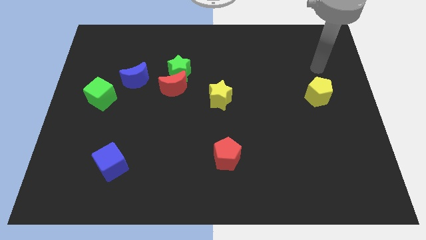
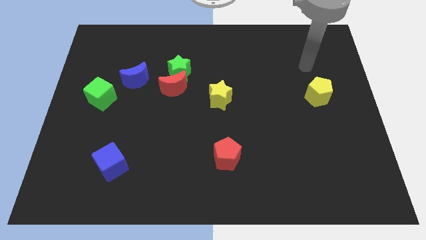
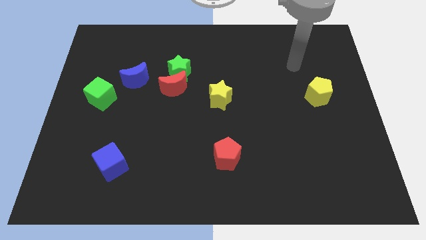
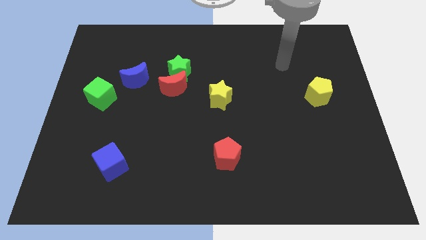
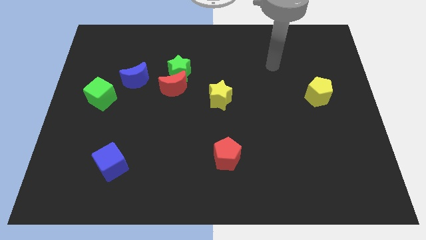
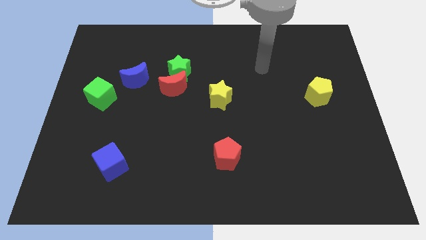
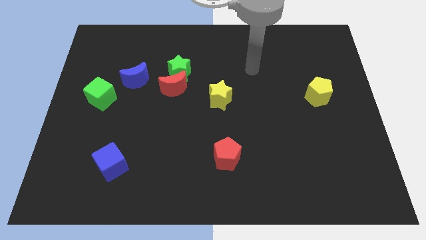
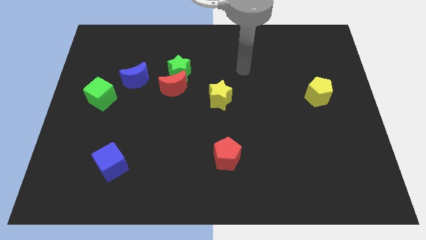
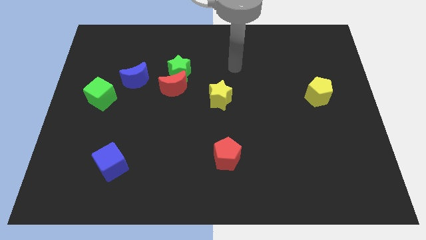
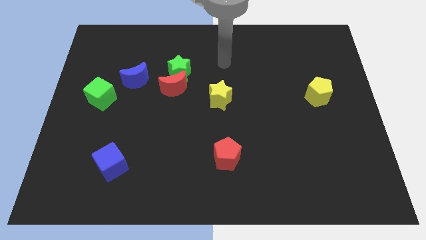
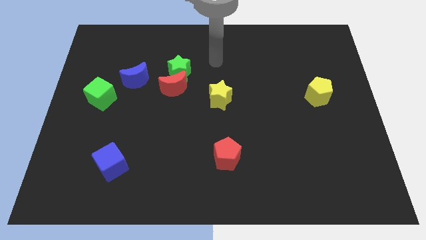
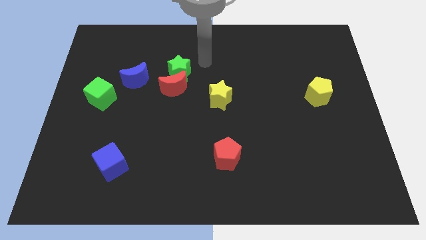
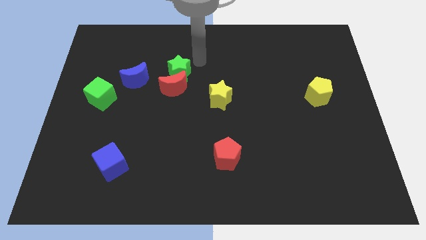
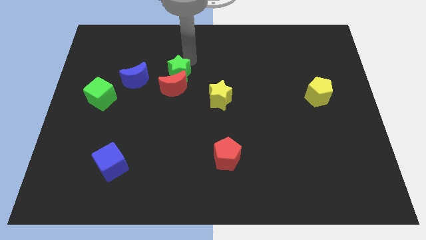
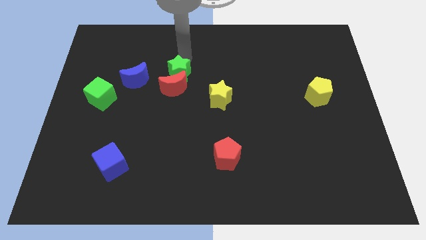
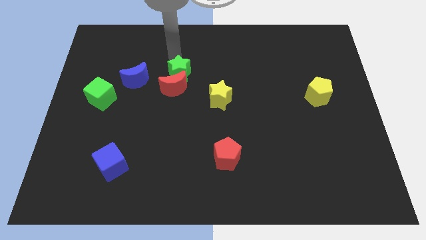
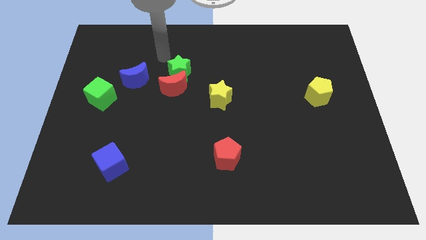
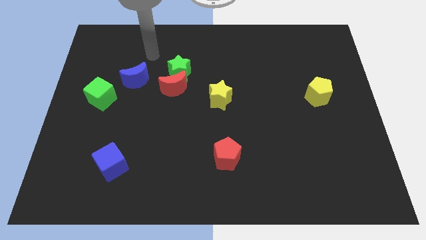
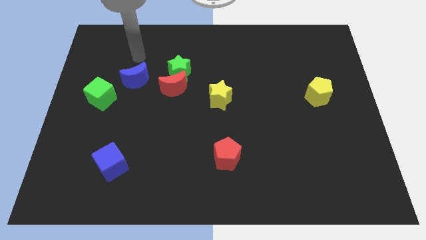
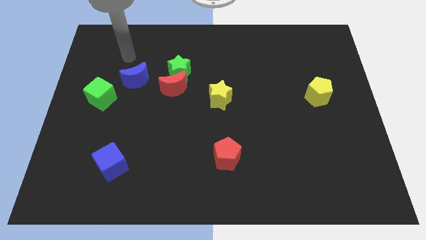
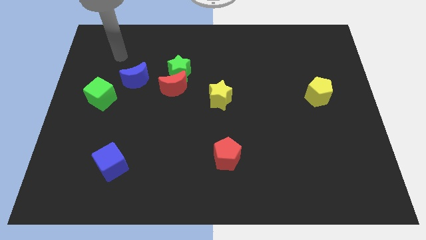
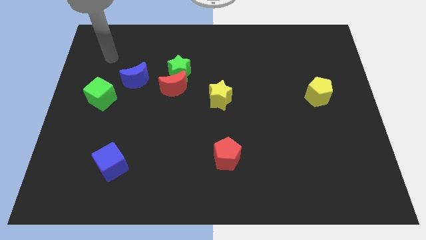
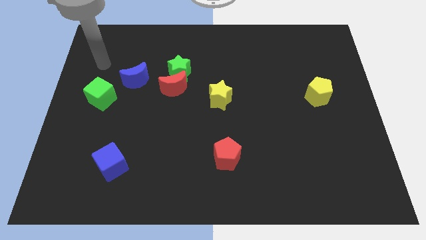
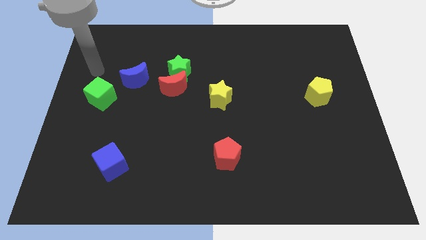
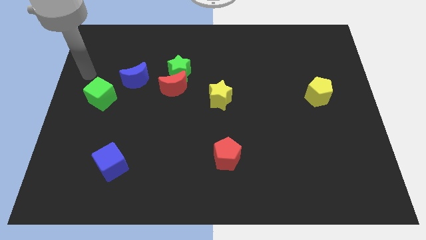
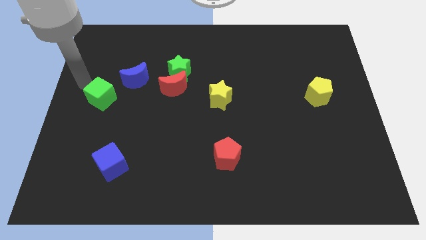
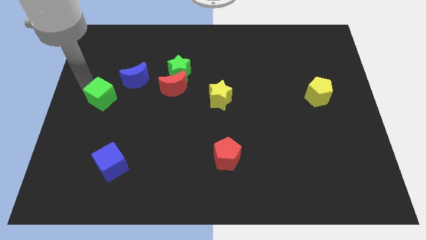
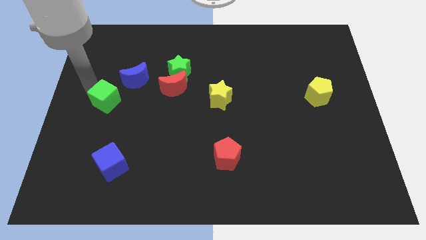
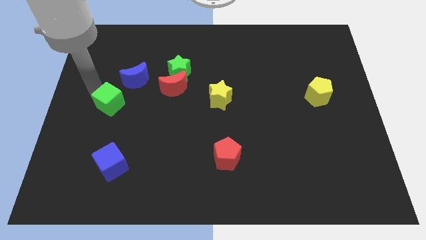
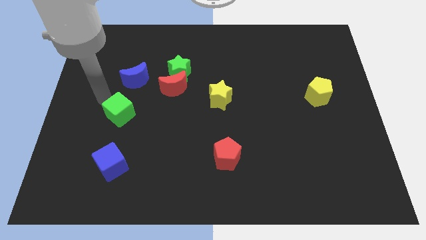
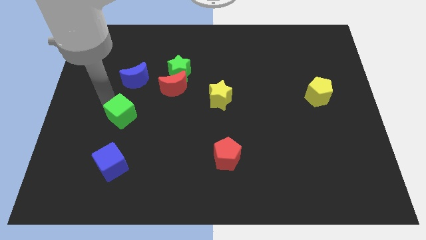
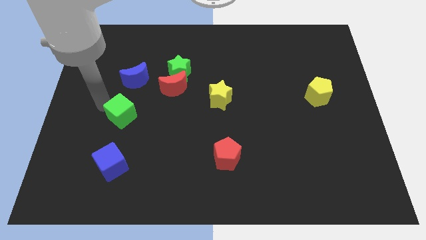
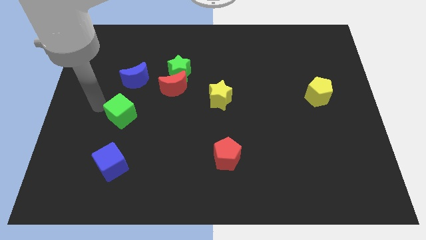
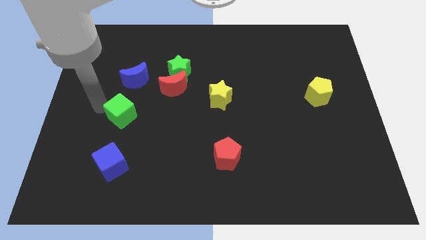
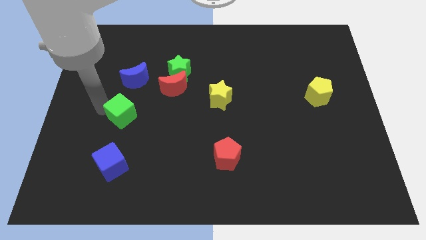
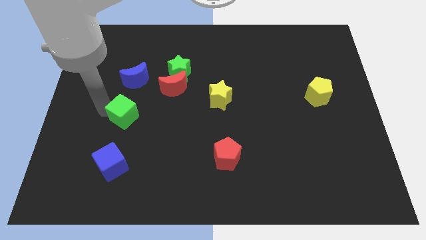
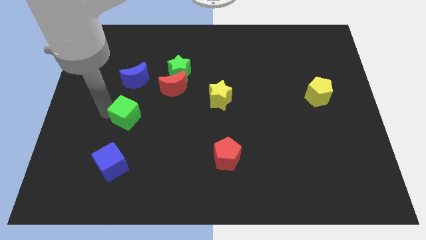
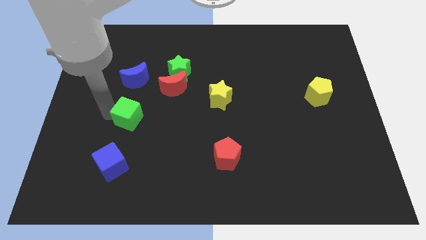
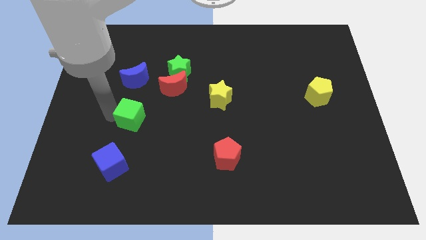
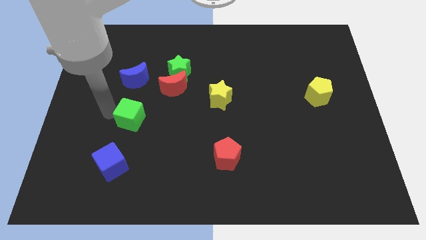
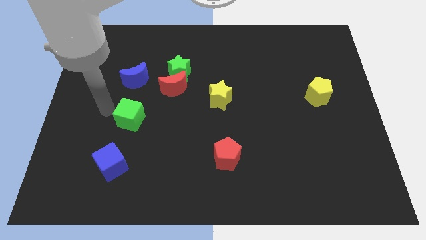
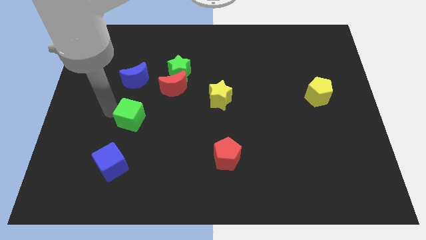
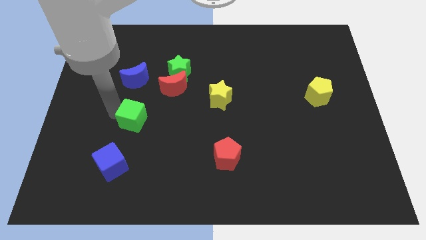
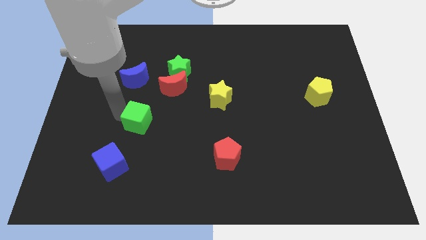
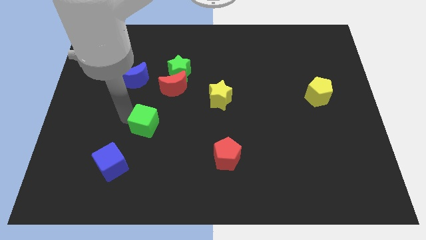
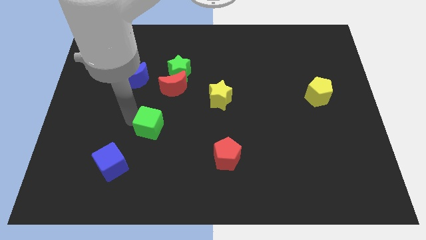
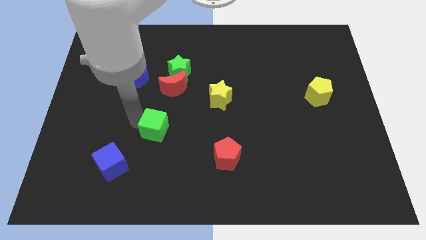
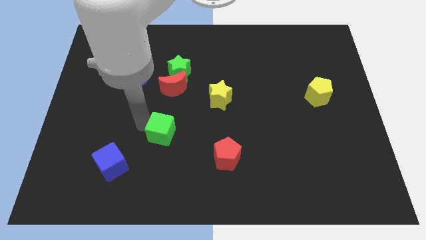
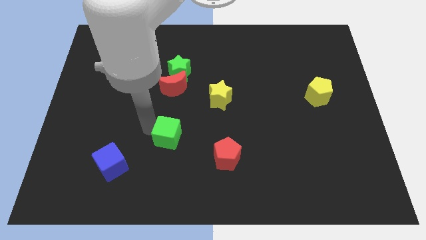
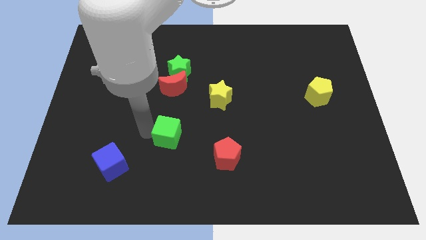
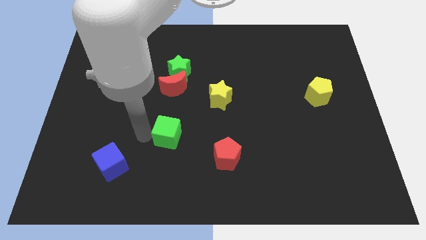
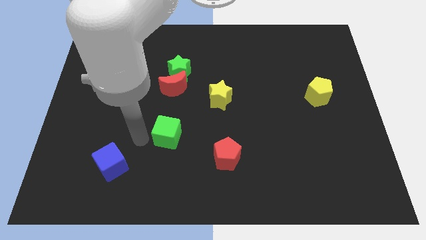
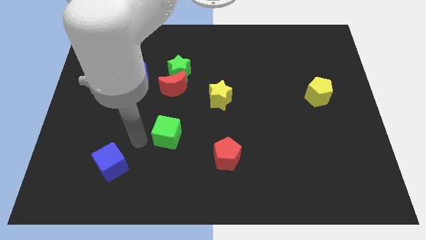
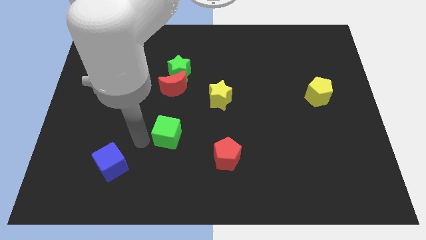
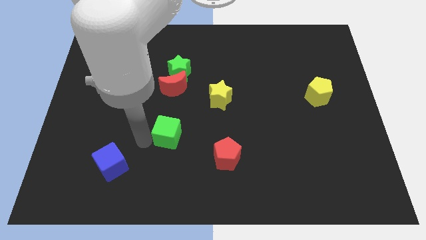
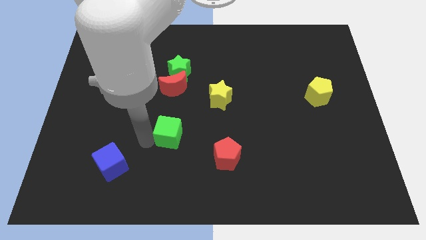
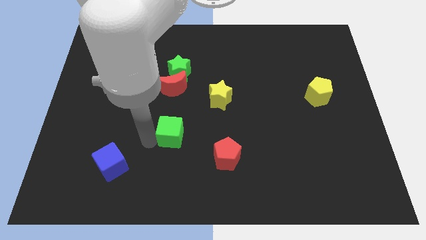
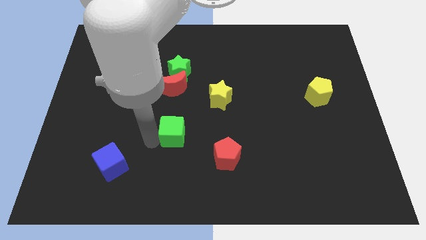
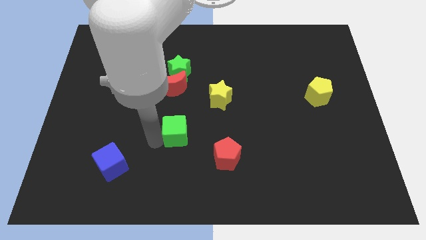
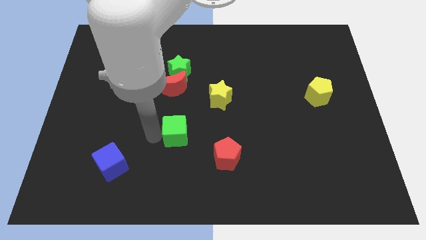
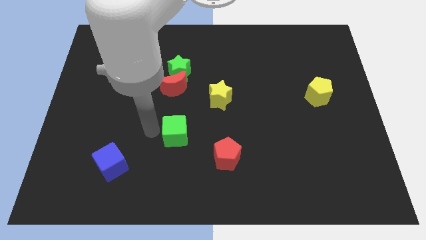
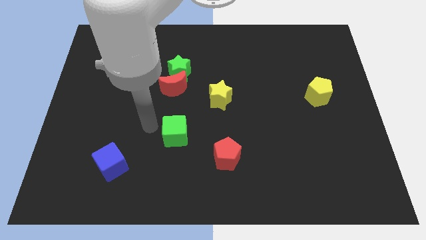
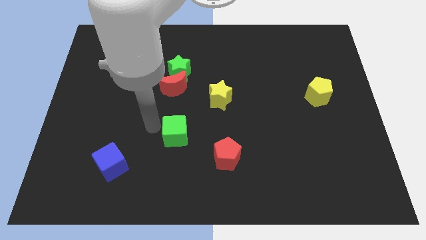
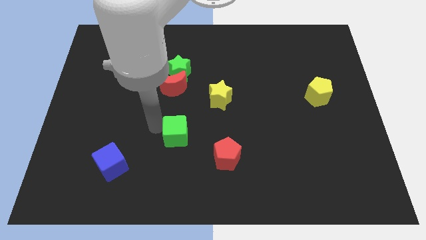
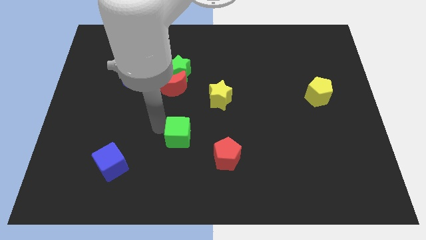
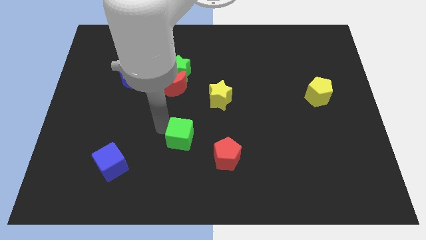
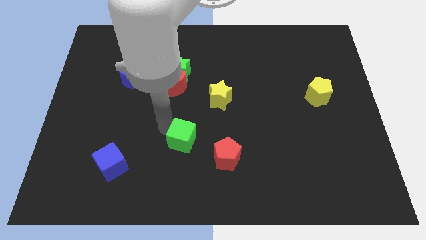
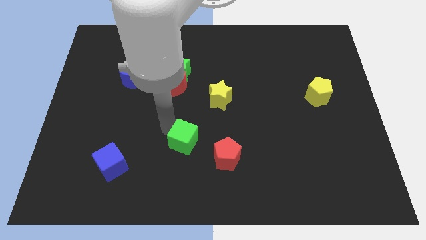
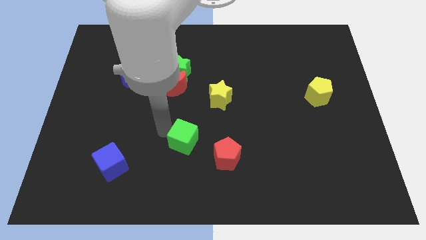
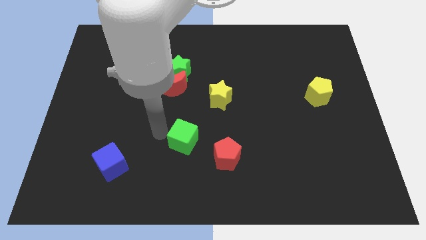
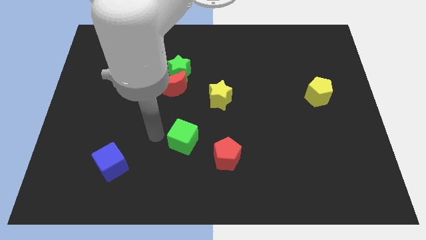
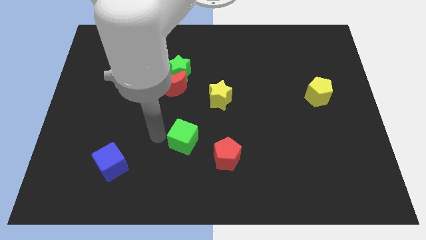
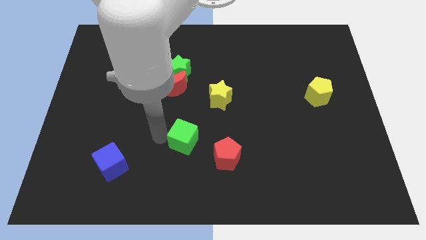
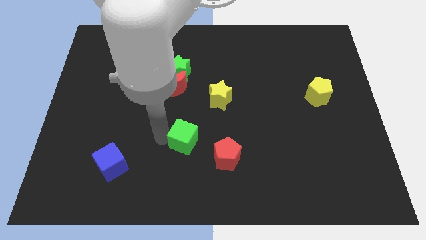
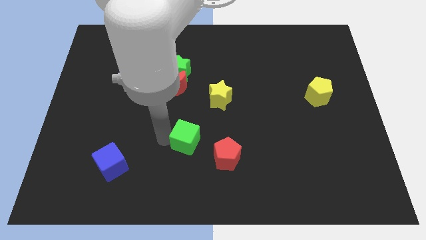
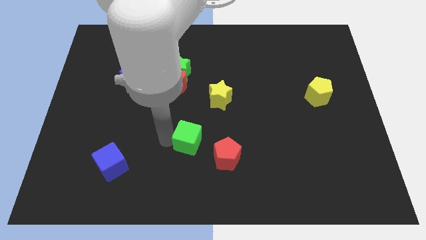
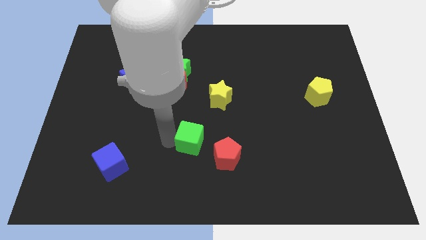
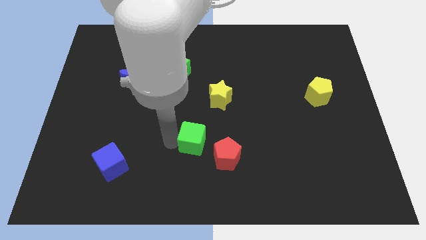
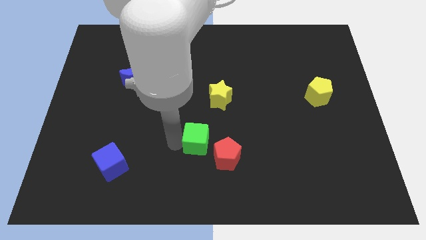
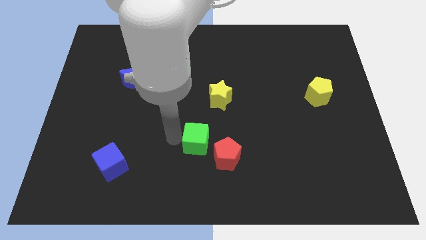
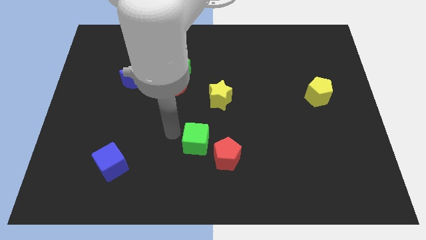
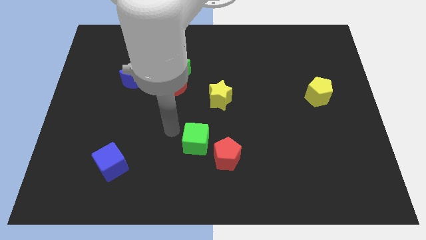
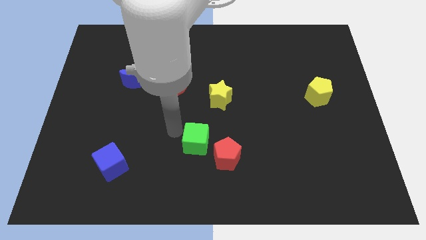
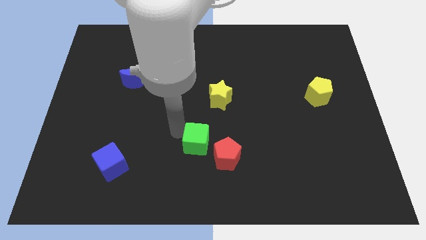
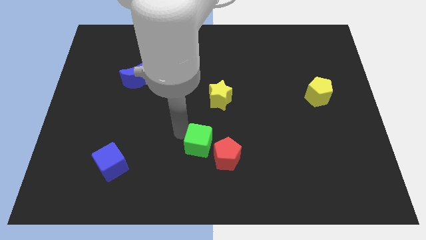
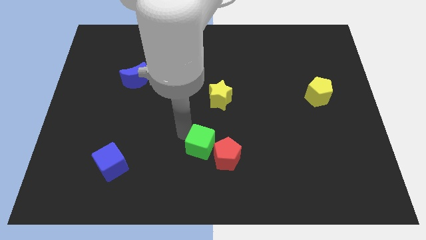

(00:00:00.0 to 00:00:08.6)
push the green cube close to the red pentagon
